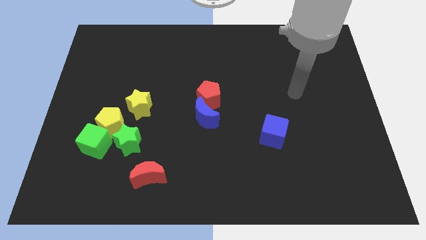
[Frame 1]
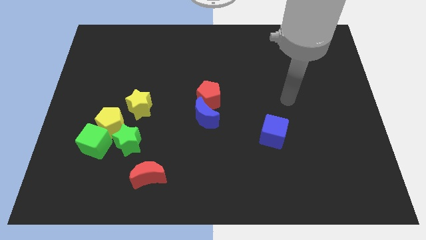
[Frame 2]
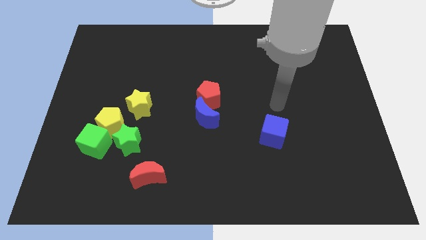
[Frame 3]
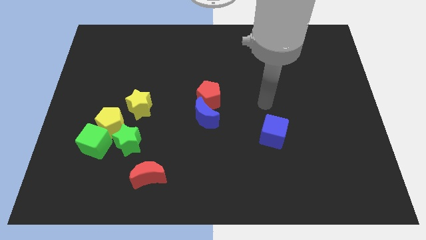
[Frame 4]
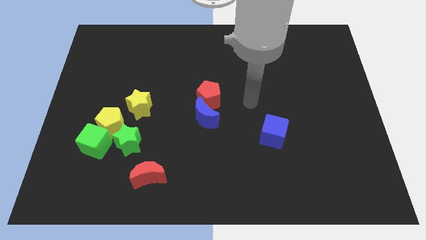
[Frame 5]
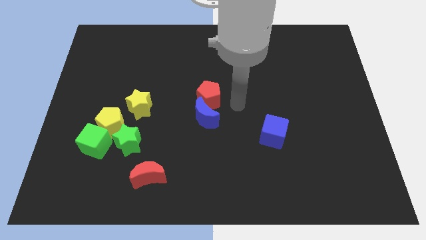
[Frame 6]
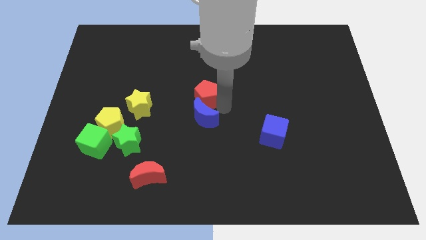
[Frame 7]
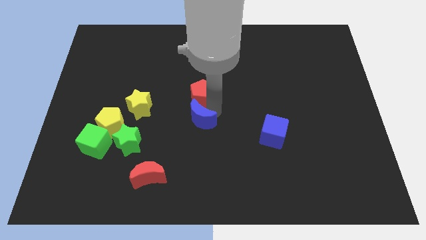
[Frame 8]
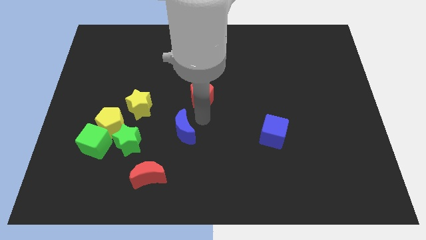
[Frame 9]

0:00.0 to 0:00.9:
pull the red pentagon apart from the blue moon

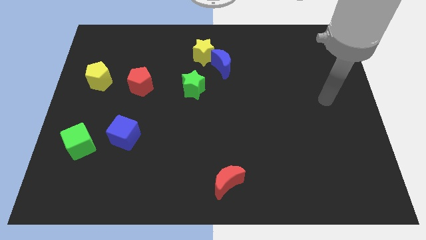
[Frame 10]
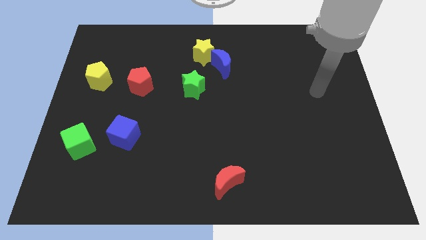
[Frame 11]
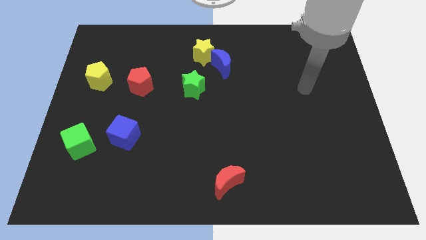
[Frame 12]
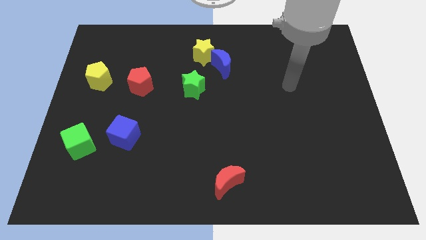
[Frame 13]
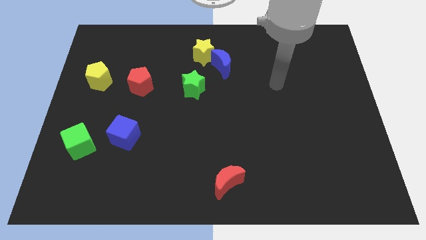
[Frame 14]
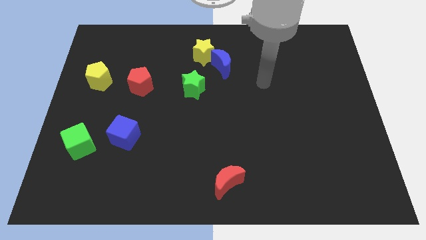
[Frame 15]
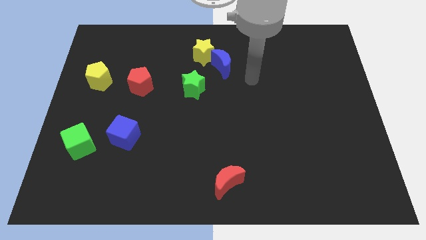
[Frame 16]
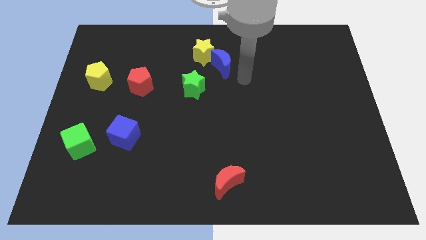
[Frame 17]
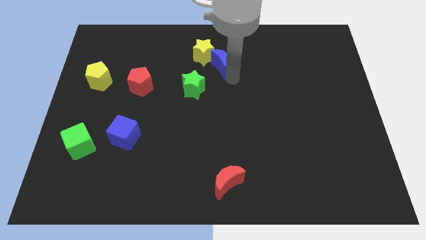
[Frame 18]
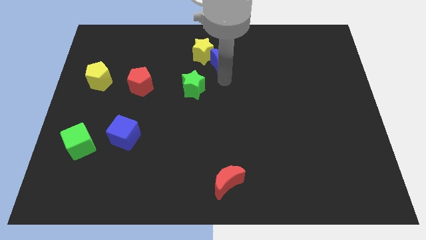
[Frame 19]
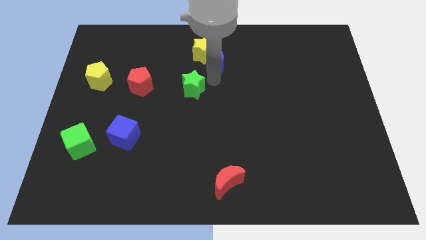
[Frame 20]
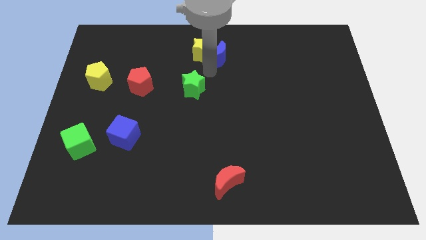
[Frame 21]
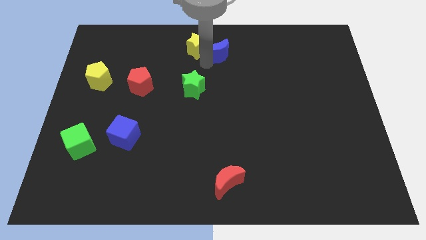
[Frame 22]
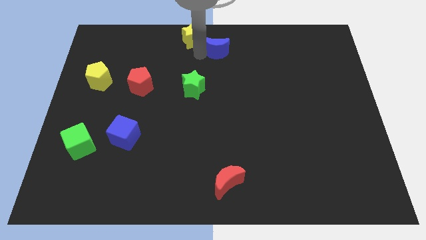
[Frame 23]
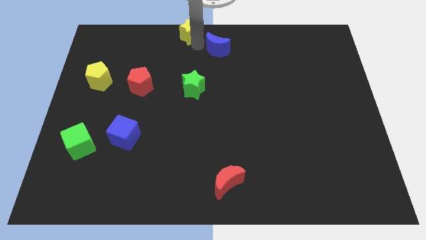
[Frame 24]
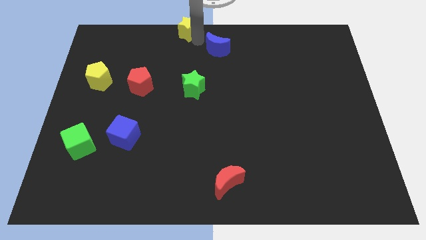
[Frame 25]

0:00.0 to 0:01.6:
pull the blue moon apart from the yellow star

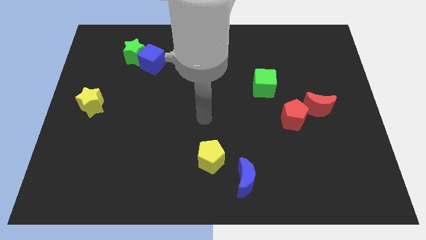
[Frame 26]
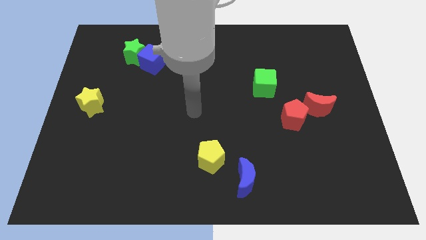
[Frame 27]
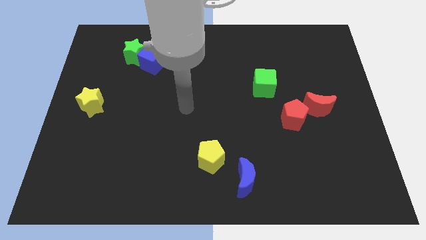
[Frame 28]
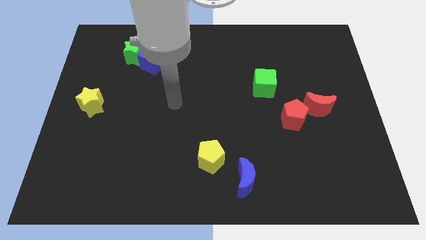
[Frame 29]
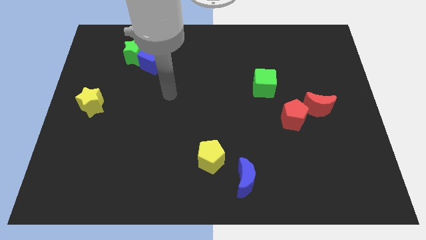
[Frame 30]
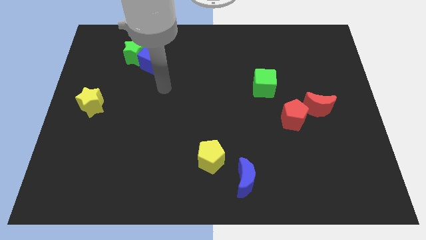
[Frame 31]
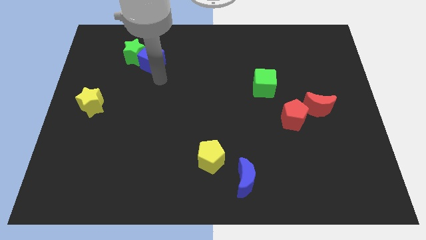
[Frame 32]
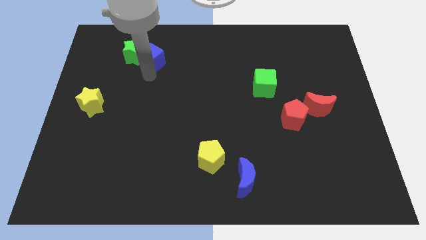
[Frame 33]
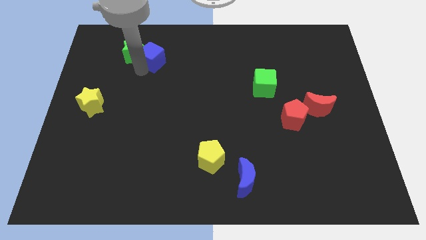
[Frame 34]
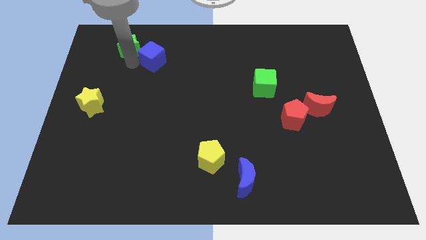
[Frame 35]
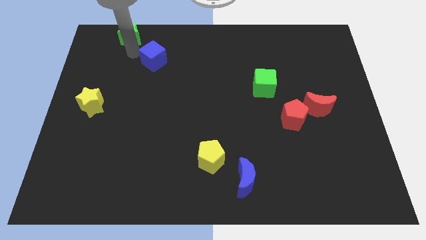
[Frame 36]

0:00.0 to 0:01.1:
move the blue cube away from the green star

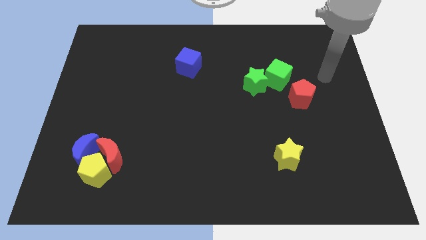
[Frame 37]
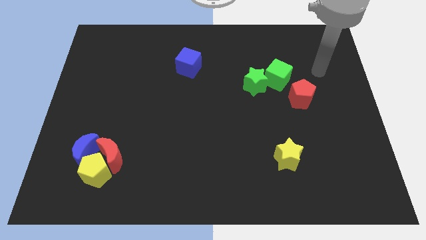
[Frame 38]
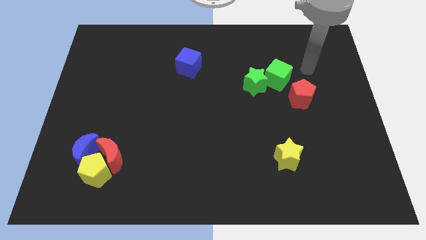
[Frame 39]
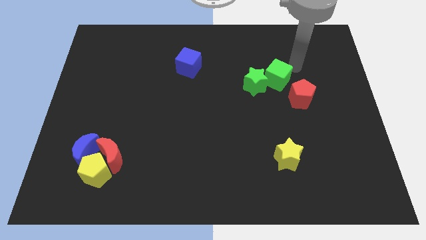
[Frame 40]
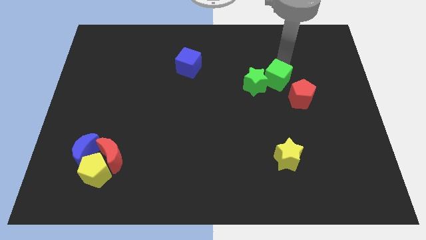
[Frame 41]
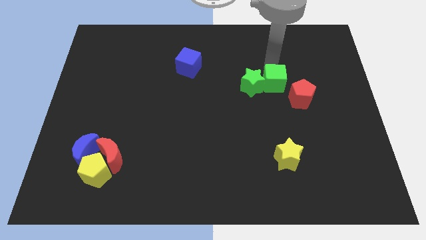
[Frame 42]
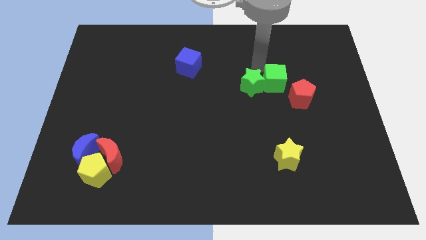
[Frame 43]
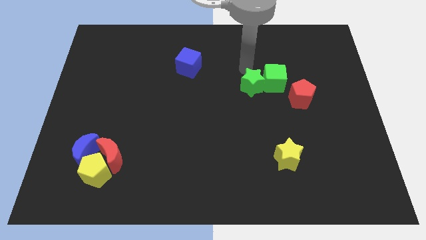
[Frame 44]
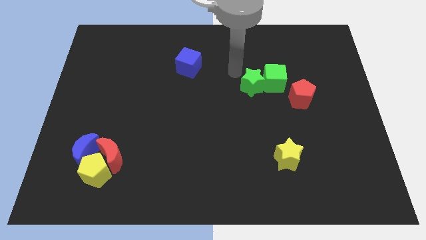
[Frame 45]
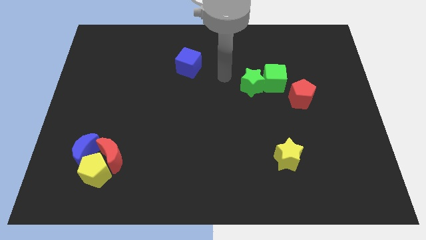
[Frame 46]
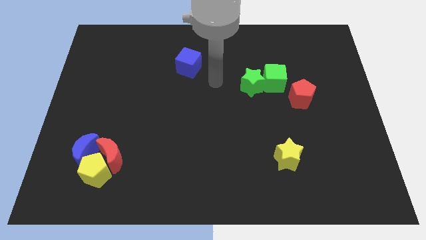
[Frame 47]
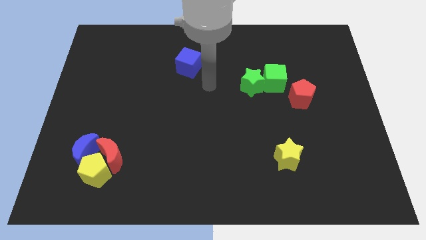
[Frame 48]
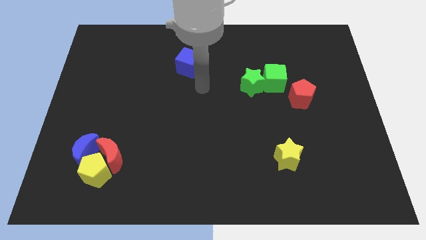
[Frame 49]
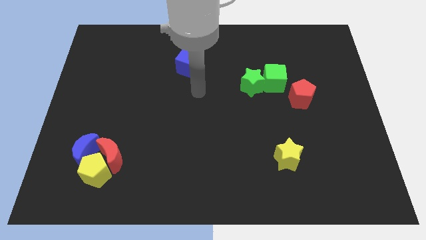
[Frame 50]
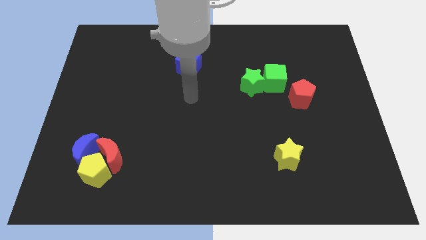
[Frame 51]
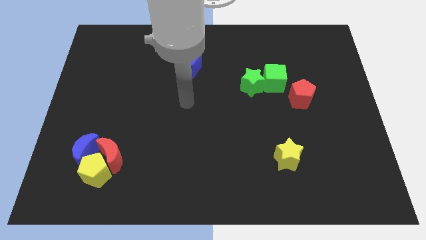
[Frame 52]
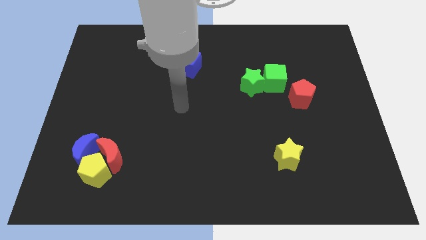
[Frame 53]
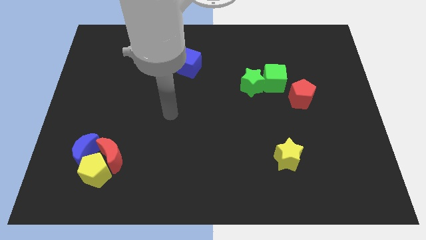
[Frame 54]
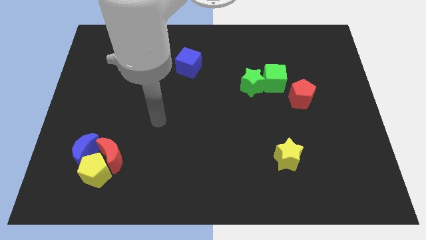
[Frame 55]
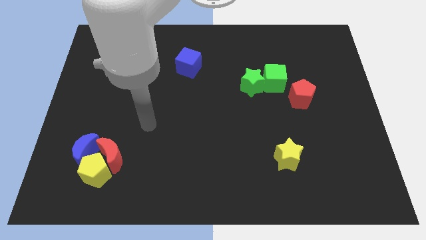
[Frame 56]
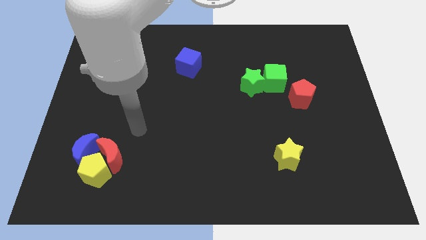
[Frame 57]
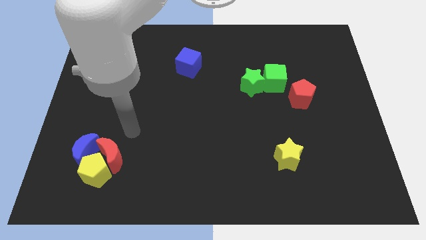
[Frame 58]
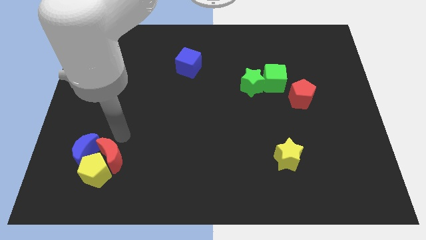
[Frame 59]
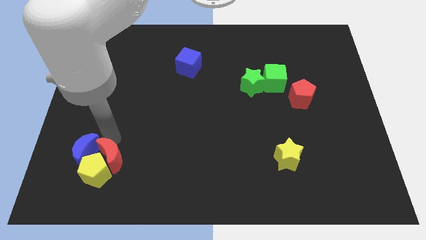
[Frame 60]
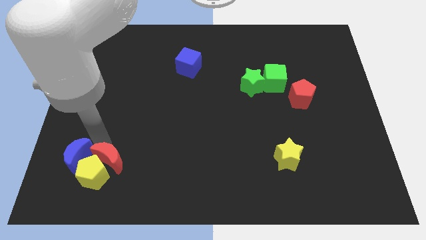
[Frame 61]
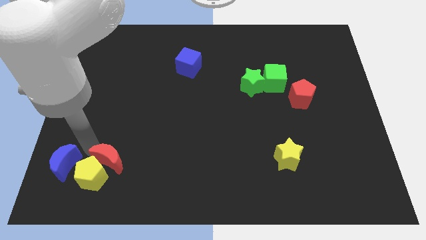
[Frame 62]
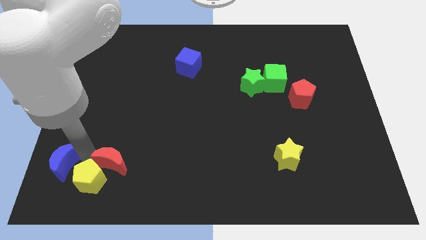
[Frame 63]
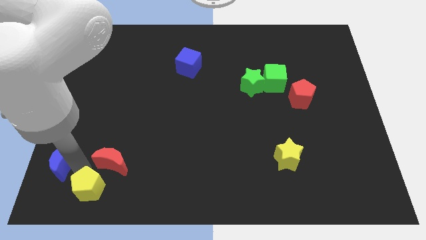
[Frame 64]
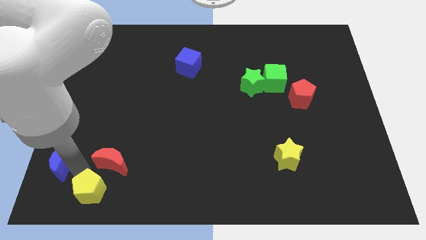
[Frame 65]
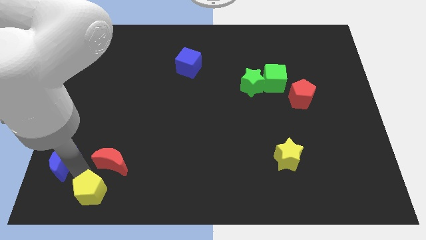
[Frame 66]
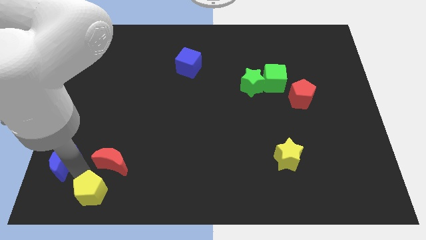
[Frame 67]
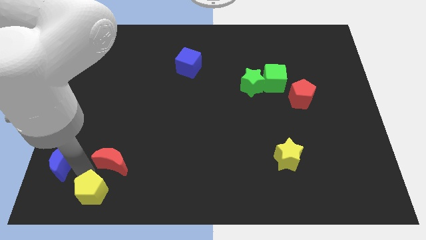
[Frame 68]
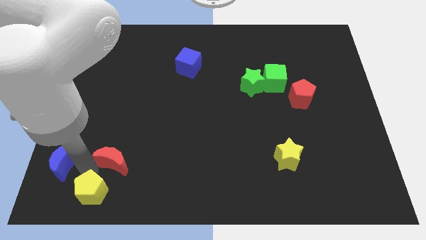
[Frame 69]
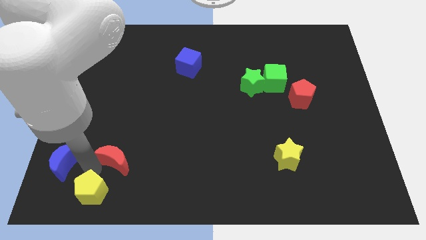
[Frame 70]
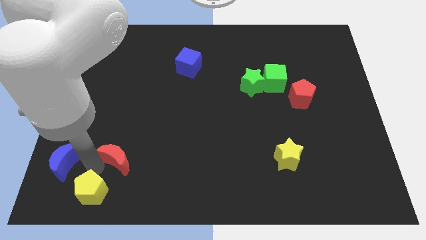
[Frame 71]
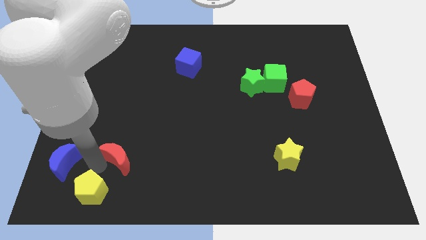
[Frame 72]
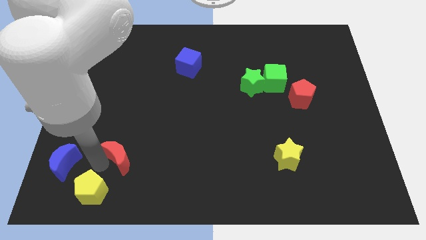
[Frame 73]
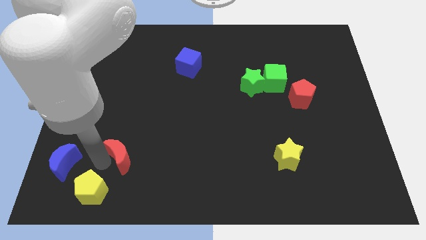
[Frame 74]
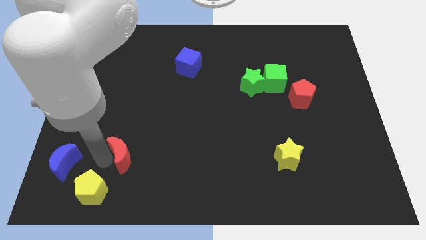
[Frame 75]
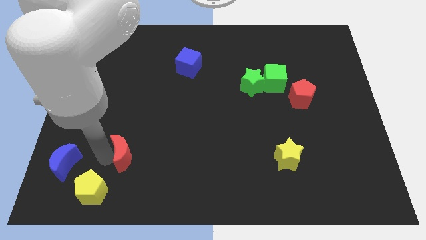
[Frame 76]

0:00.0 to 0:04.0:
pull the red moon apart from the yellow pentagon and blue moon

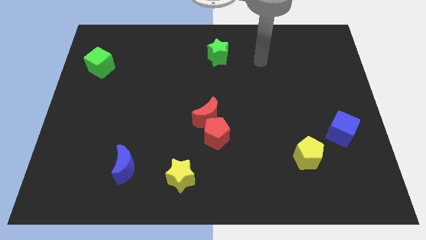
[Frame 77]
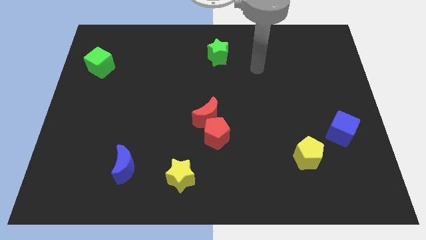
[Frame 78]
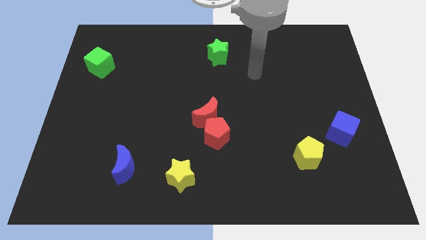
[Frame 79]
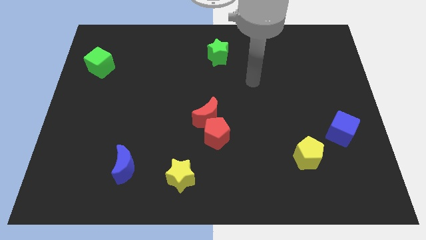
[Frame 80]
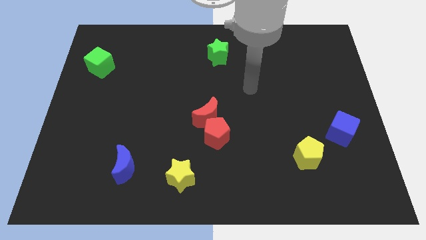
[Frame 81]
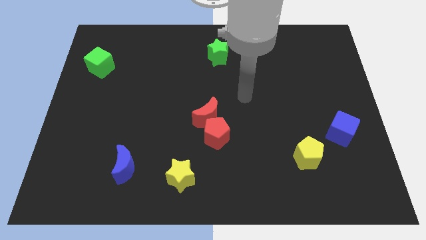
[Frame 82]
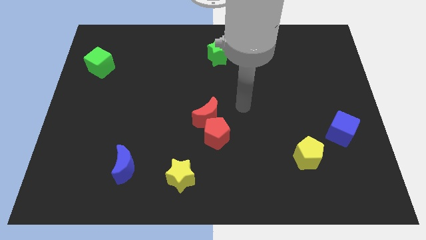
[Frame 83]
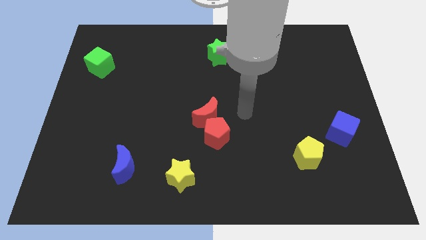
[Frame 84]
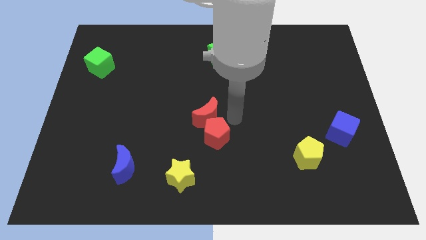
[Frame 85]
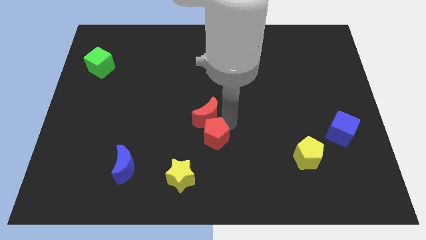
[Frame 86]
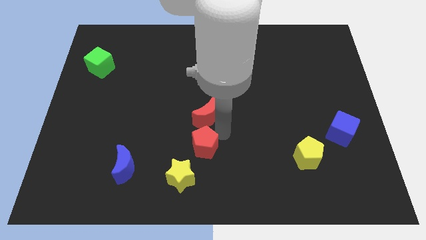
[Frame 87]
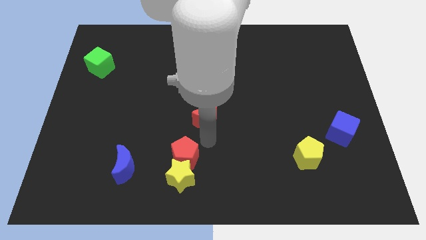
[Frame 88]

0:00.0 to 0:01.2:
separate the red moon from the red pentagon

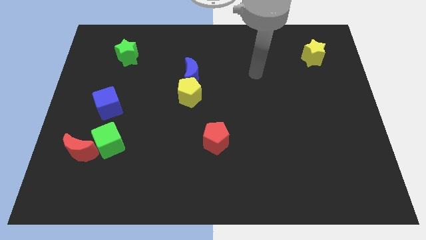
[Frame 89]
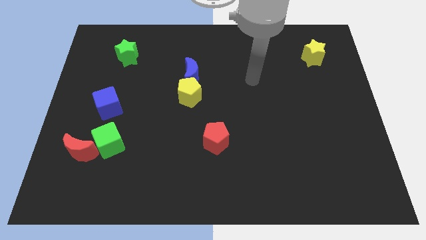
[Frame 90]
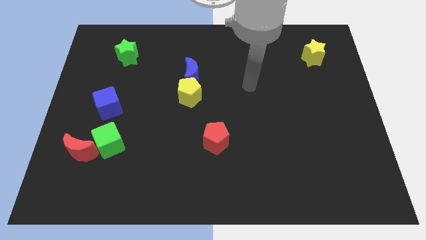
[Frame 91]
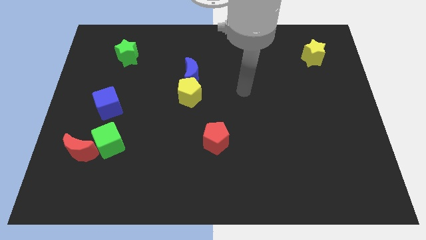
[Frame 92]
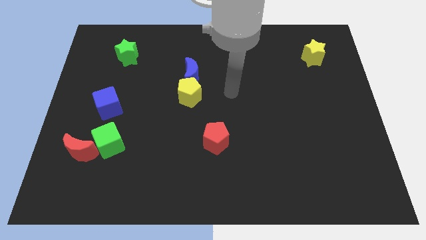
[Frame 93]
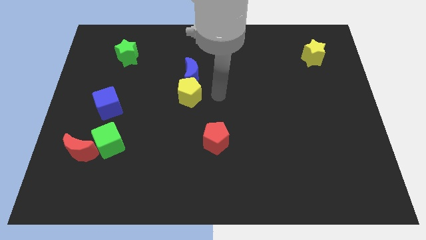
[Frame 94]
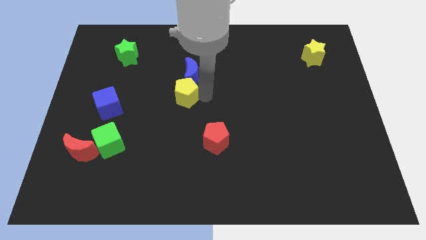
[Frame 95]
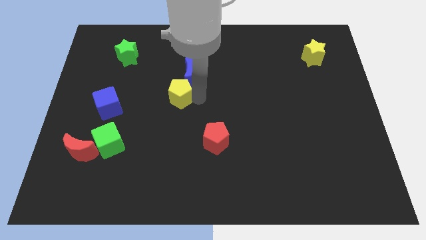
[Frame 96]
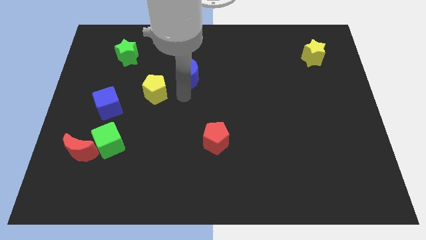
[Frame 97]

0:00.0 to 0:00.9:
pull the blue moon apart from the yellow pentagon
